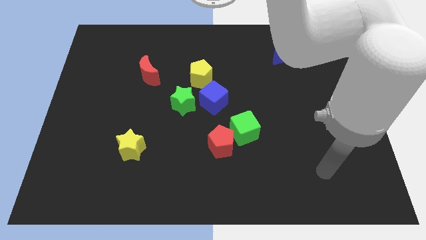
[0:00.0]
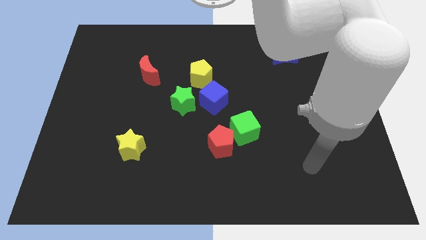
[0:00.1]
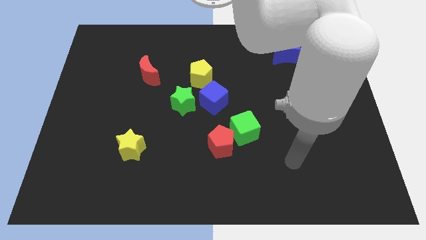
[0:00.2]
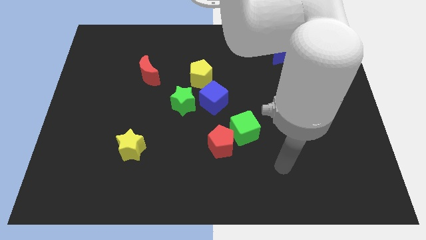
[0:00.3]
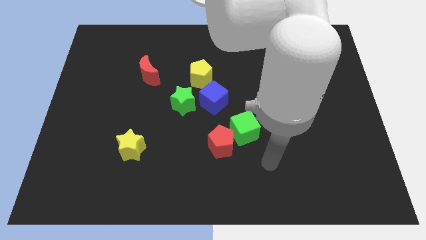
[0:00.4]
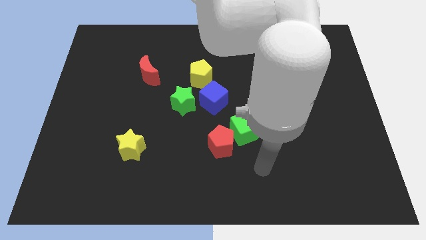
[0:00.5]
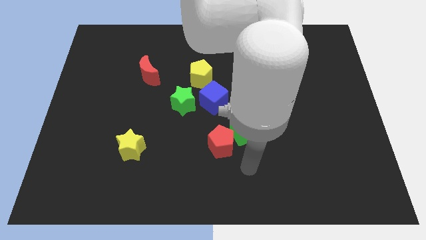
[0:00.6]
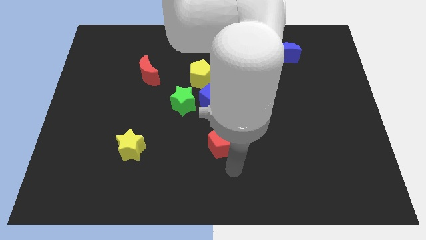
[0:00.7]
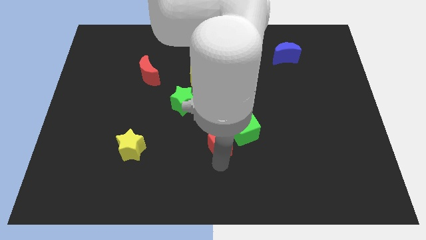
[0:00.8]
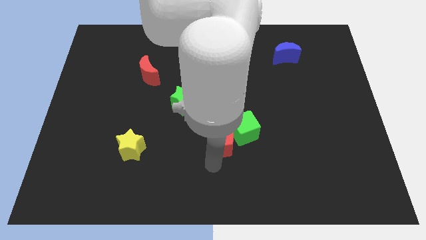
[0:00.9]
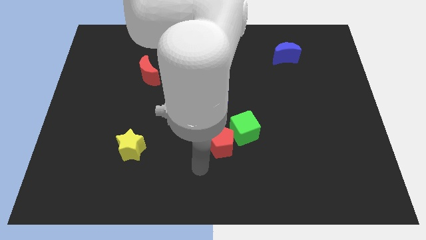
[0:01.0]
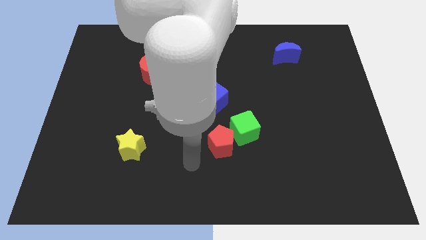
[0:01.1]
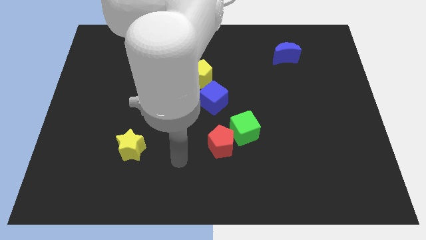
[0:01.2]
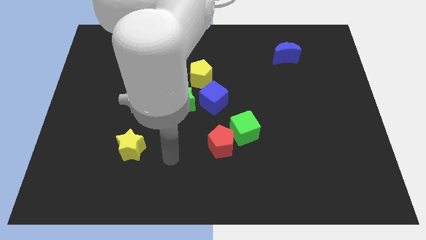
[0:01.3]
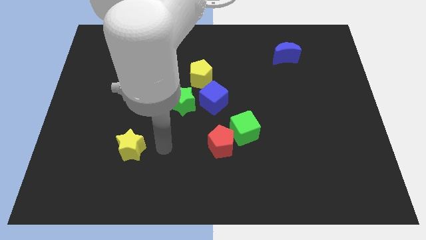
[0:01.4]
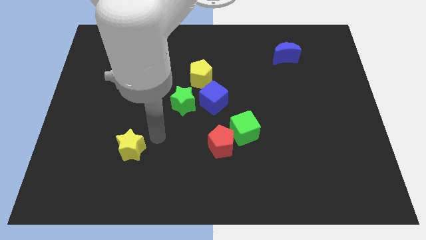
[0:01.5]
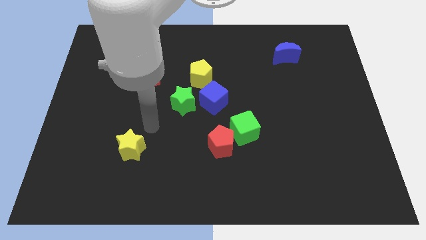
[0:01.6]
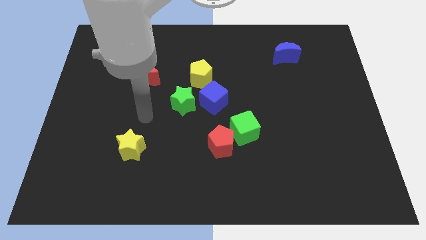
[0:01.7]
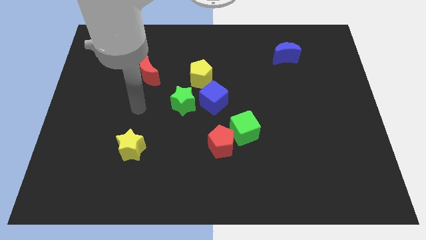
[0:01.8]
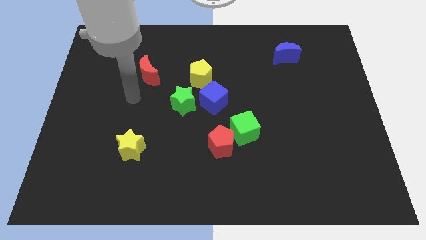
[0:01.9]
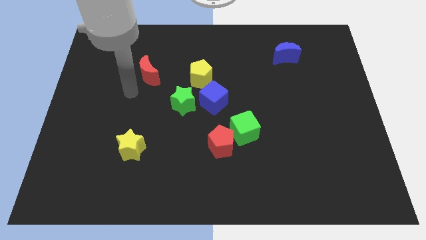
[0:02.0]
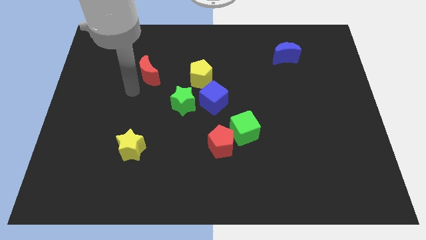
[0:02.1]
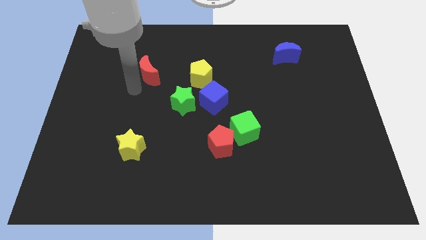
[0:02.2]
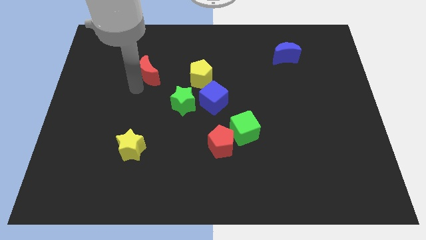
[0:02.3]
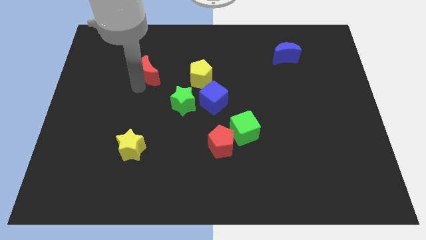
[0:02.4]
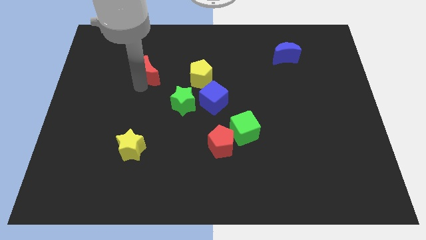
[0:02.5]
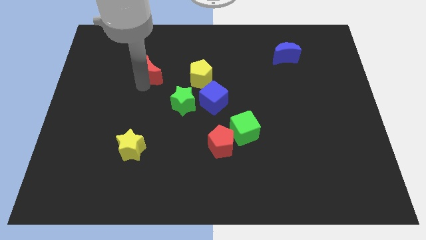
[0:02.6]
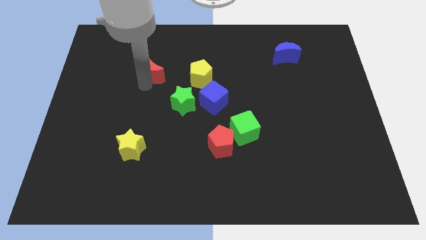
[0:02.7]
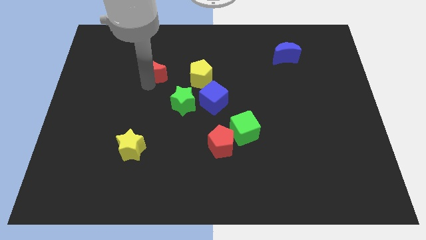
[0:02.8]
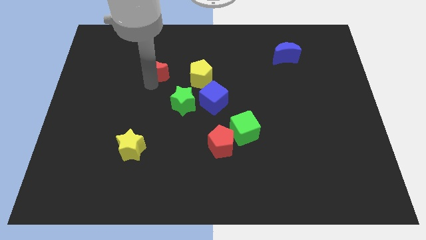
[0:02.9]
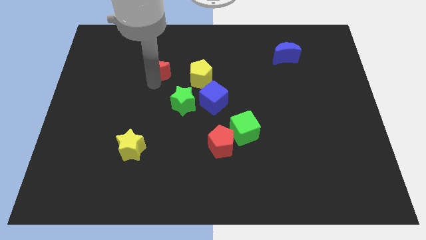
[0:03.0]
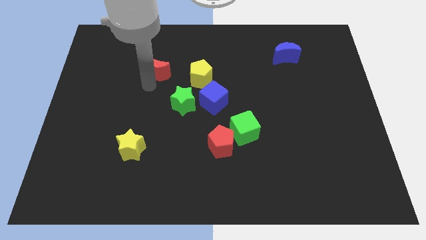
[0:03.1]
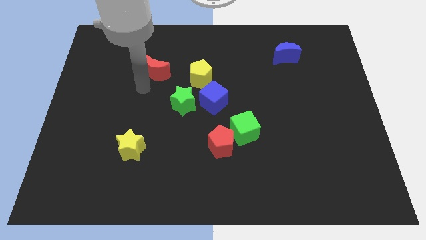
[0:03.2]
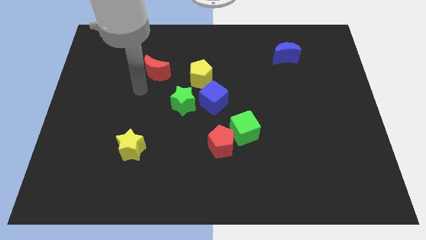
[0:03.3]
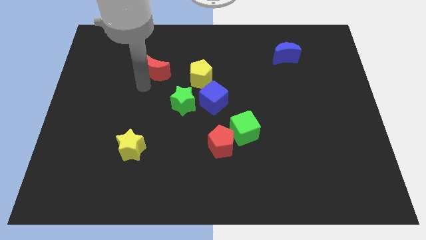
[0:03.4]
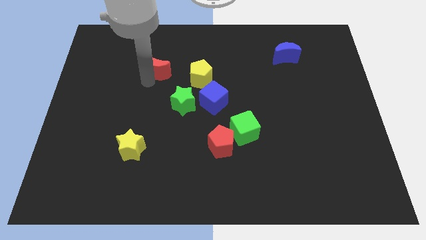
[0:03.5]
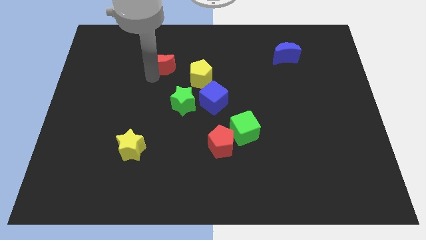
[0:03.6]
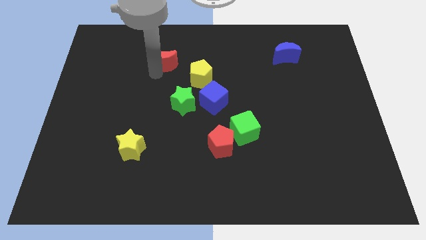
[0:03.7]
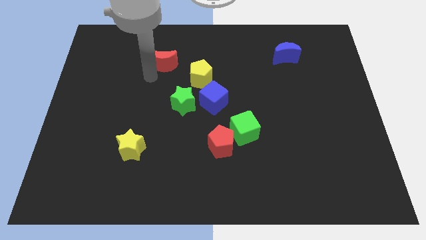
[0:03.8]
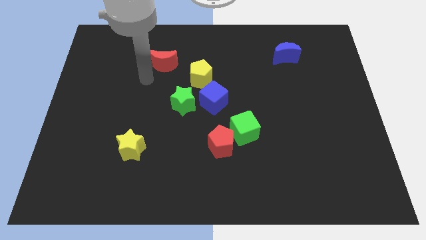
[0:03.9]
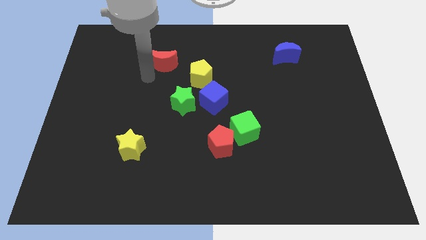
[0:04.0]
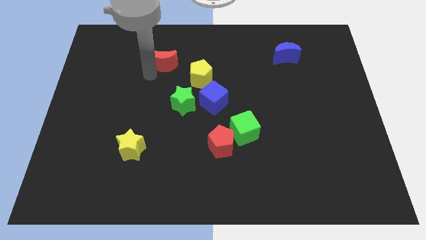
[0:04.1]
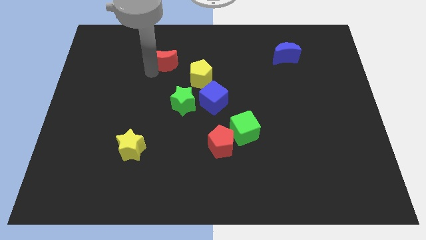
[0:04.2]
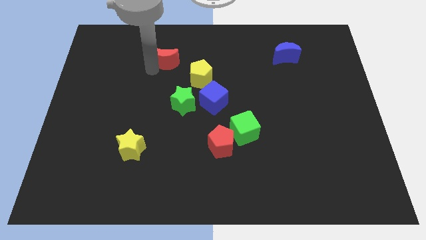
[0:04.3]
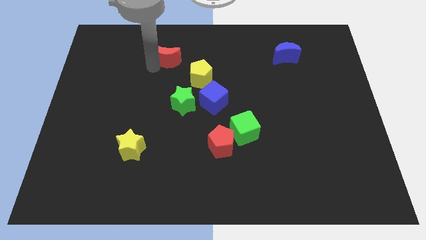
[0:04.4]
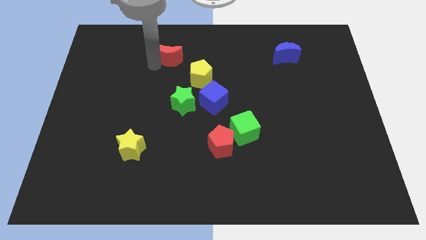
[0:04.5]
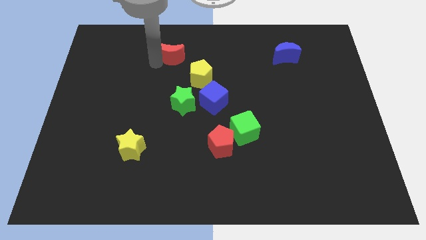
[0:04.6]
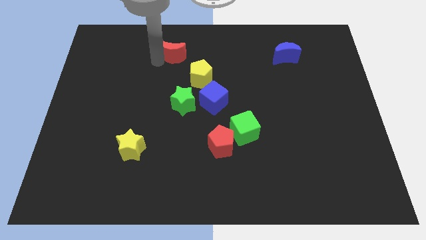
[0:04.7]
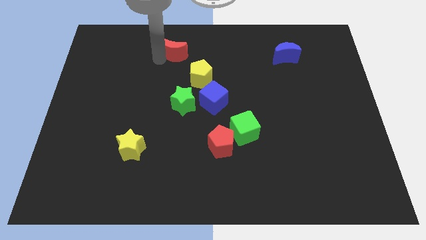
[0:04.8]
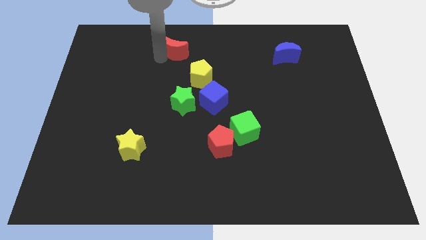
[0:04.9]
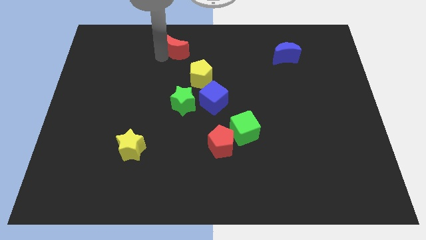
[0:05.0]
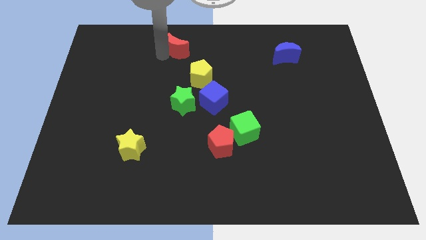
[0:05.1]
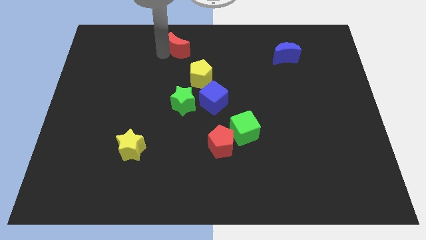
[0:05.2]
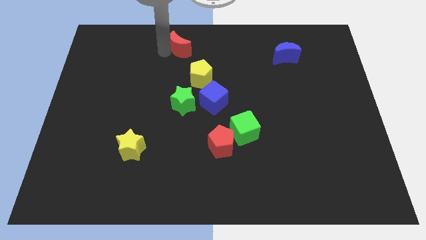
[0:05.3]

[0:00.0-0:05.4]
push the red moon to the top side

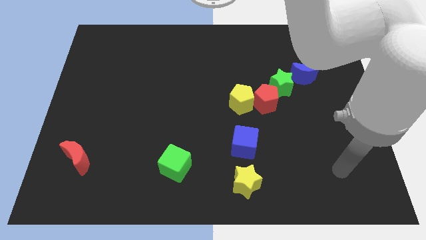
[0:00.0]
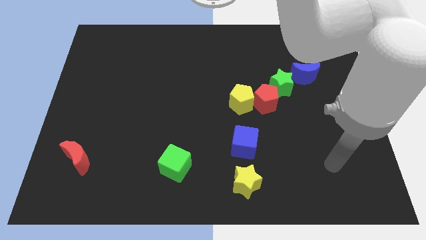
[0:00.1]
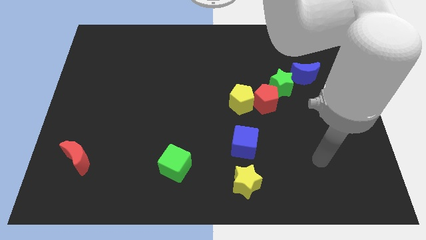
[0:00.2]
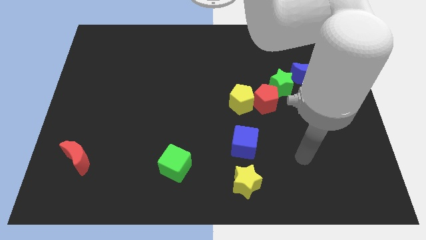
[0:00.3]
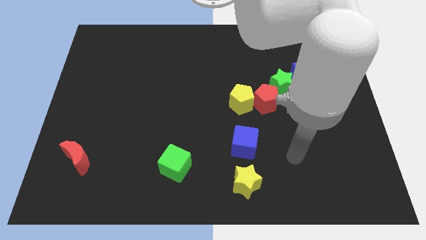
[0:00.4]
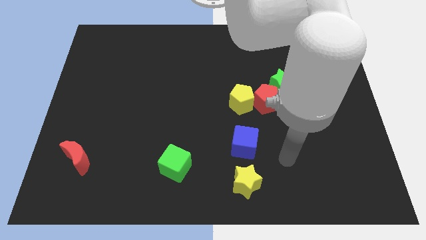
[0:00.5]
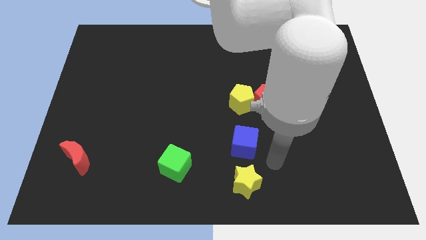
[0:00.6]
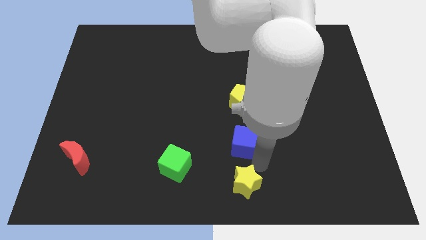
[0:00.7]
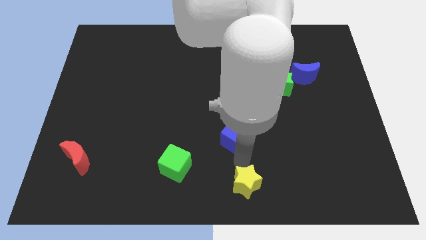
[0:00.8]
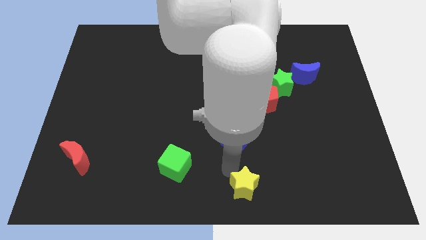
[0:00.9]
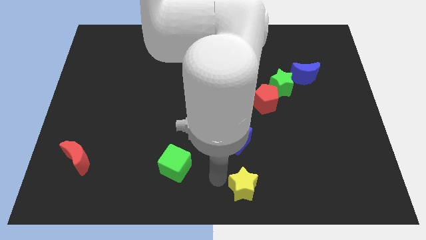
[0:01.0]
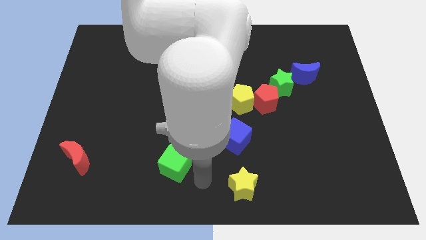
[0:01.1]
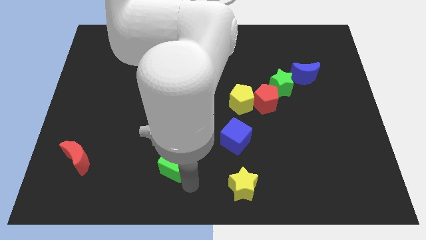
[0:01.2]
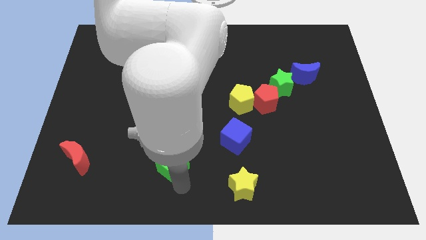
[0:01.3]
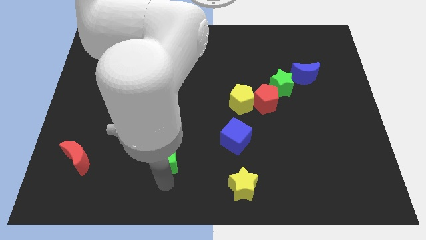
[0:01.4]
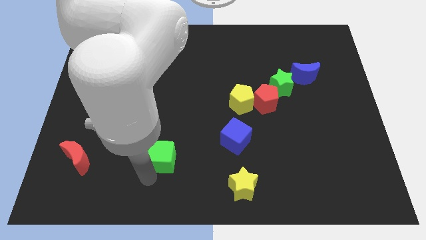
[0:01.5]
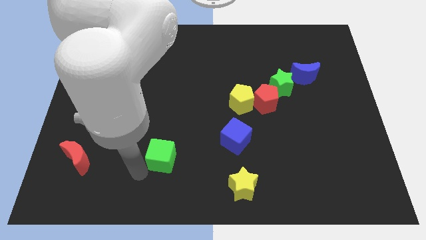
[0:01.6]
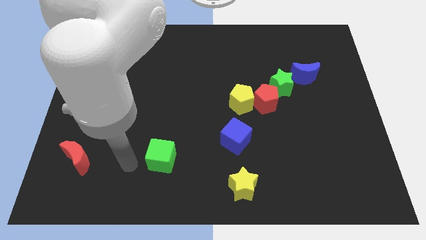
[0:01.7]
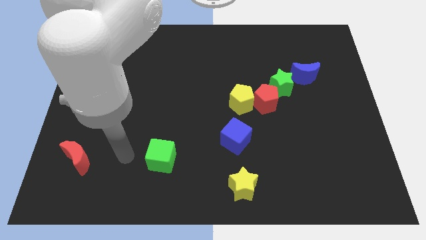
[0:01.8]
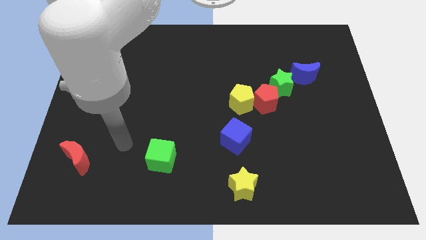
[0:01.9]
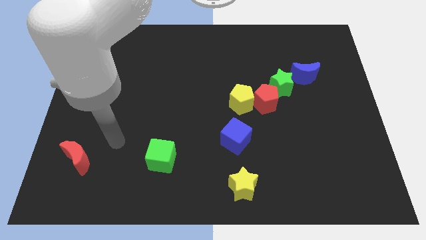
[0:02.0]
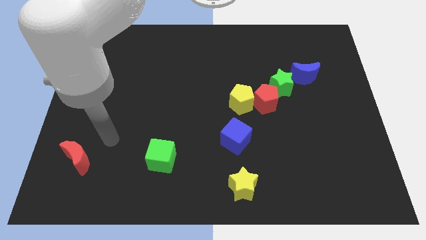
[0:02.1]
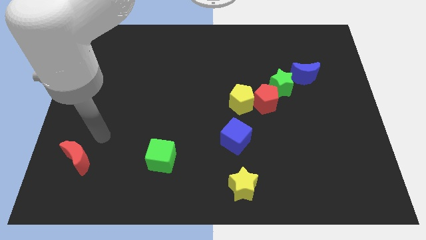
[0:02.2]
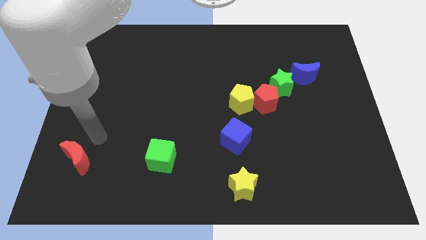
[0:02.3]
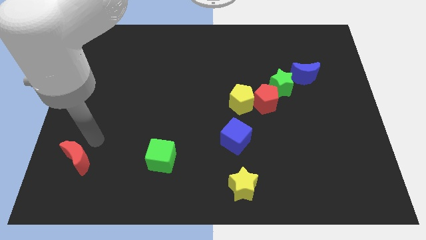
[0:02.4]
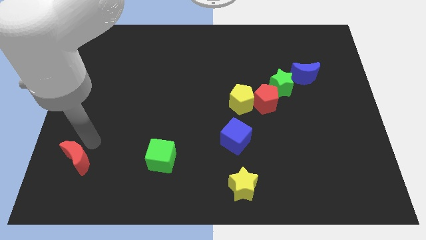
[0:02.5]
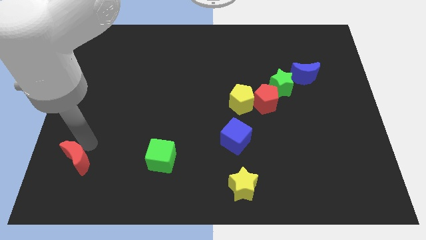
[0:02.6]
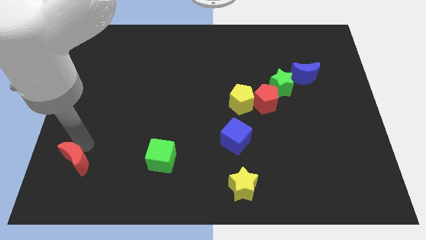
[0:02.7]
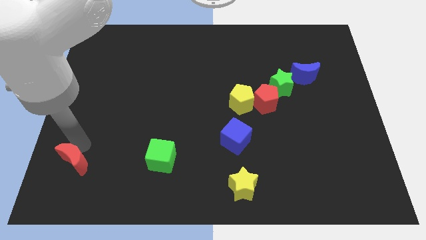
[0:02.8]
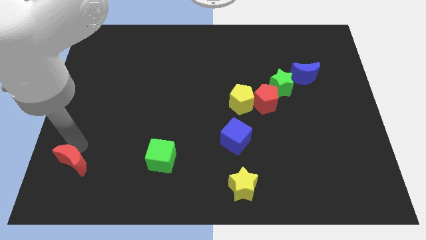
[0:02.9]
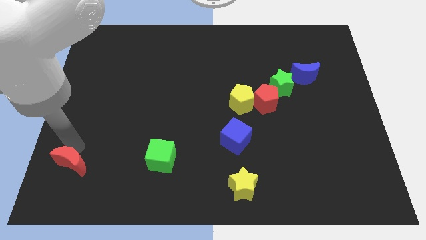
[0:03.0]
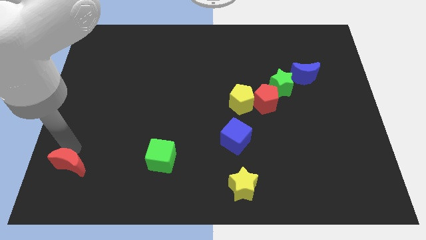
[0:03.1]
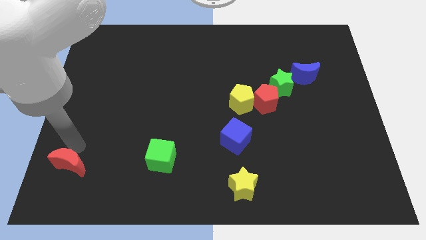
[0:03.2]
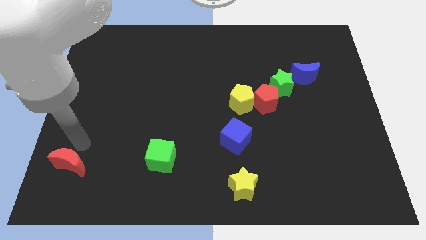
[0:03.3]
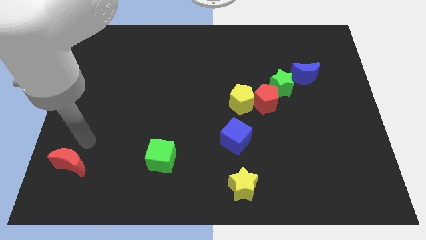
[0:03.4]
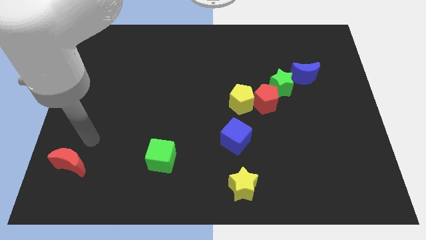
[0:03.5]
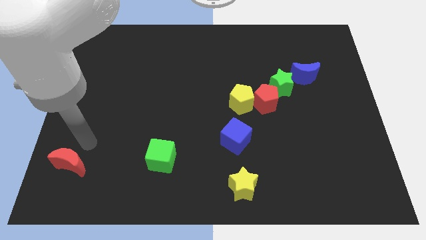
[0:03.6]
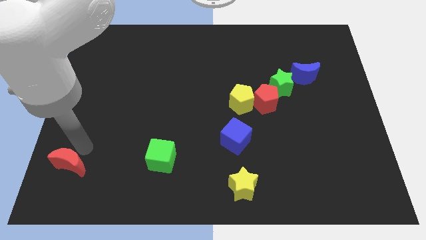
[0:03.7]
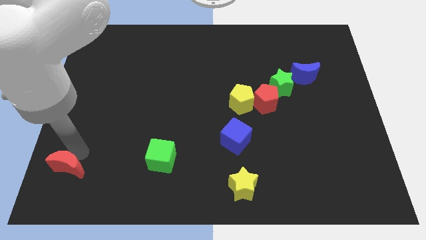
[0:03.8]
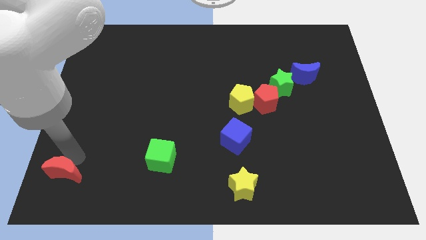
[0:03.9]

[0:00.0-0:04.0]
slide the red moon to the lower left corner
